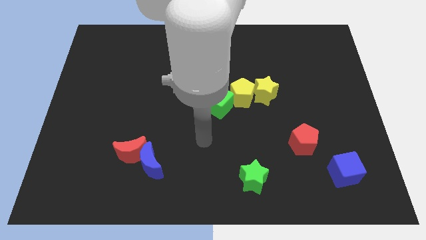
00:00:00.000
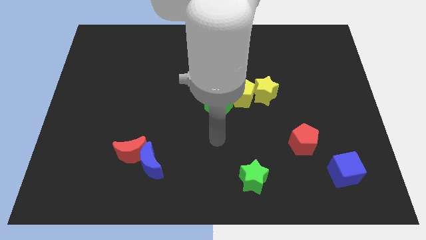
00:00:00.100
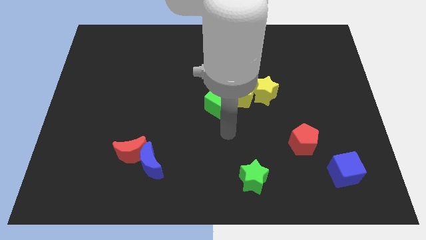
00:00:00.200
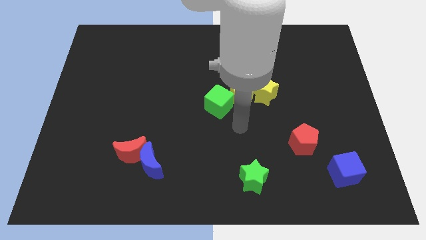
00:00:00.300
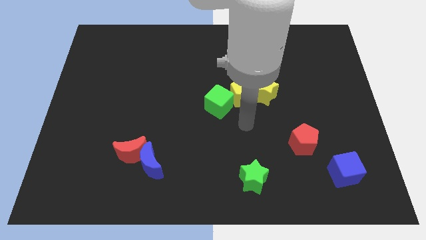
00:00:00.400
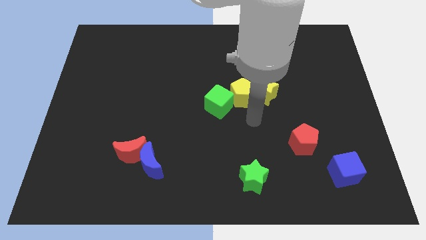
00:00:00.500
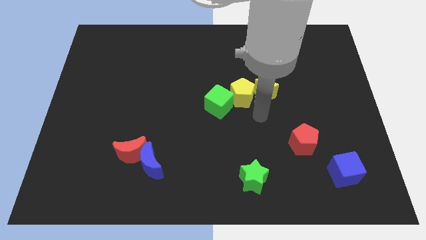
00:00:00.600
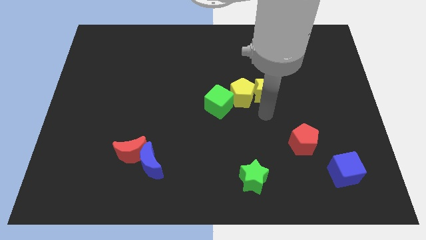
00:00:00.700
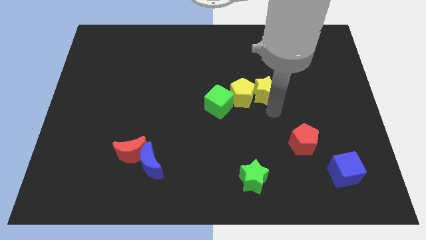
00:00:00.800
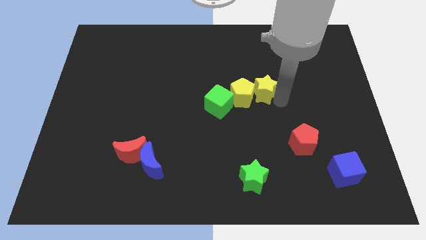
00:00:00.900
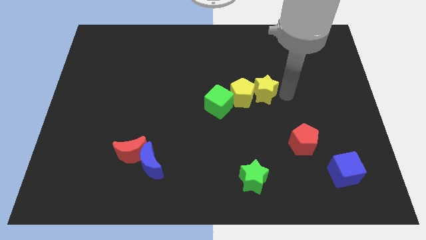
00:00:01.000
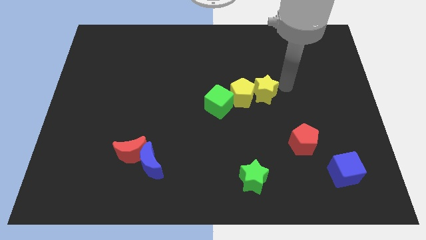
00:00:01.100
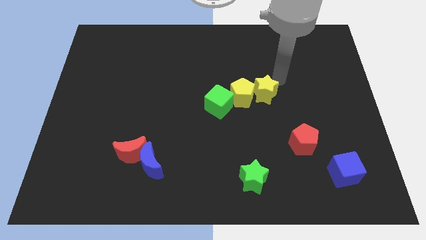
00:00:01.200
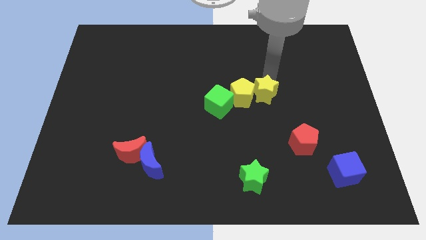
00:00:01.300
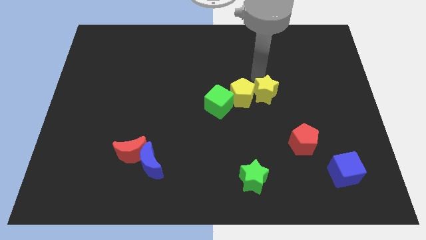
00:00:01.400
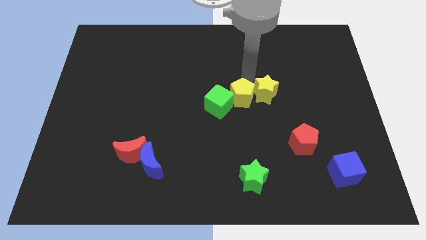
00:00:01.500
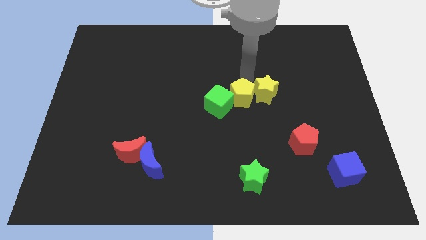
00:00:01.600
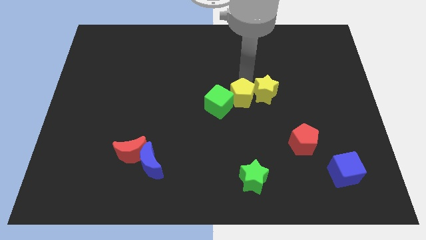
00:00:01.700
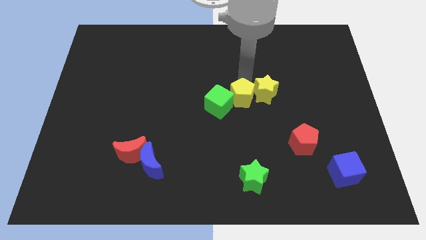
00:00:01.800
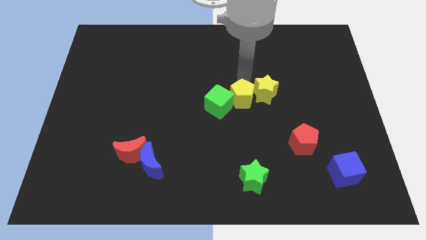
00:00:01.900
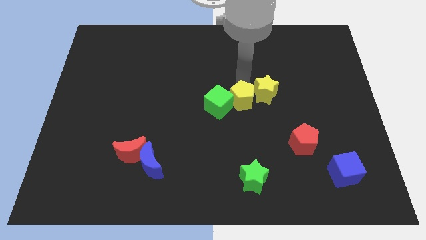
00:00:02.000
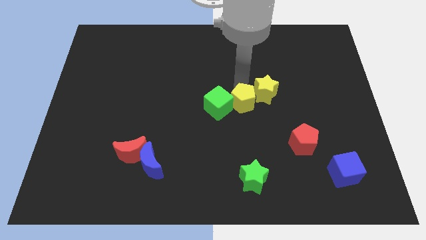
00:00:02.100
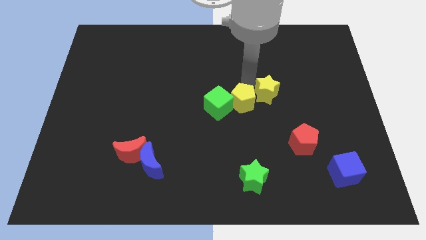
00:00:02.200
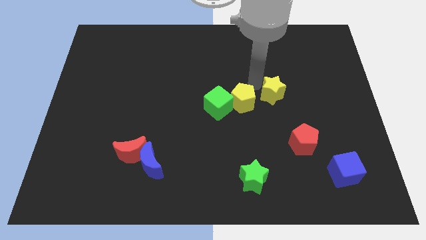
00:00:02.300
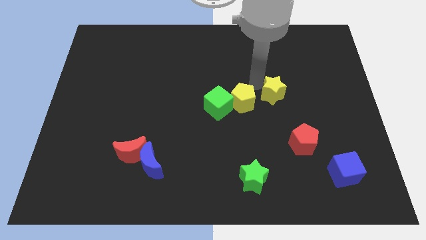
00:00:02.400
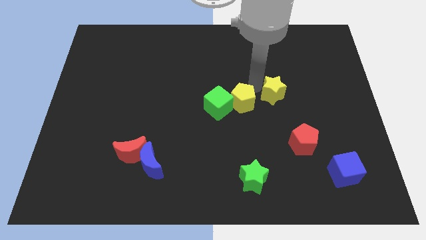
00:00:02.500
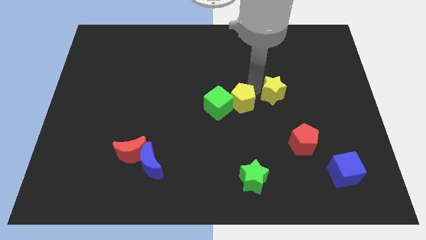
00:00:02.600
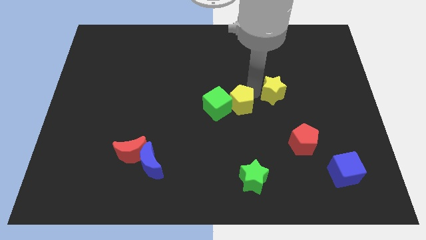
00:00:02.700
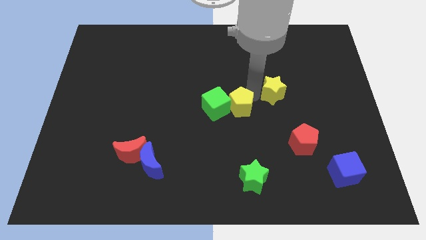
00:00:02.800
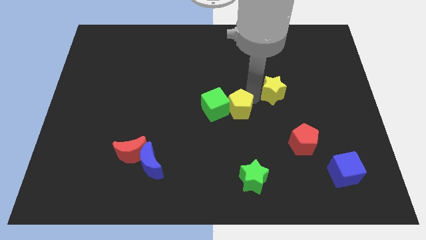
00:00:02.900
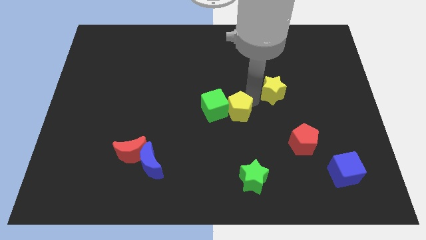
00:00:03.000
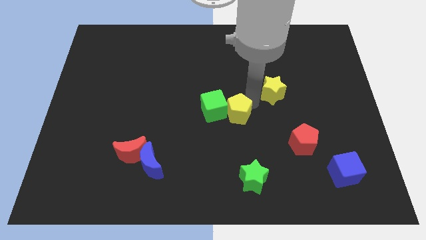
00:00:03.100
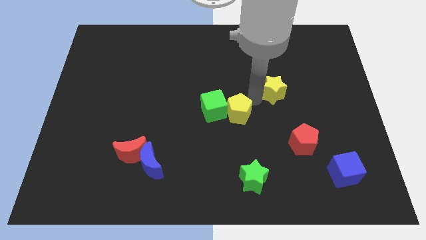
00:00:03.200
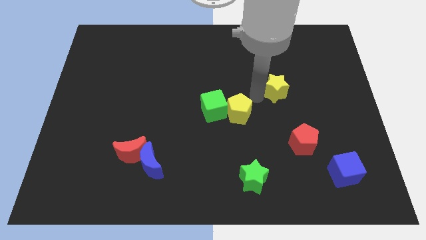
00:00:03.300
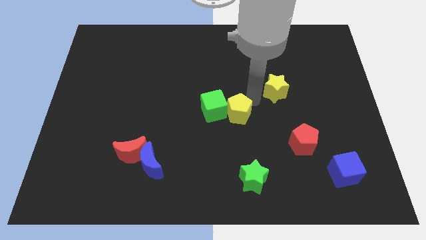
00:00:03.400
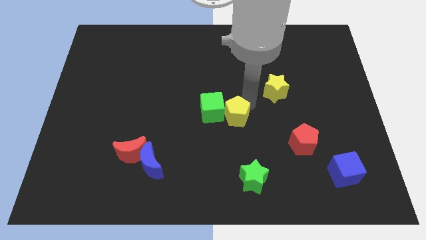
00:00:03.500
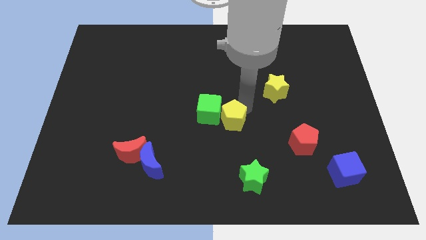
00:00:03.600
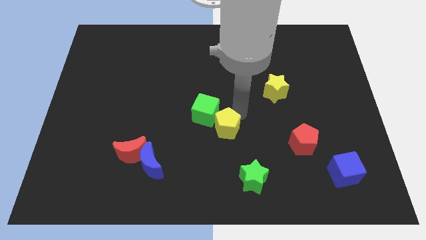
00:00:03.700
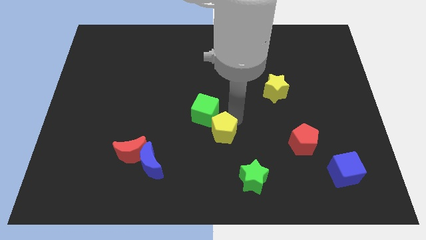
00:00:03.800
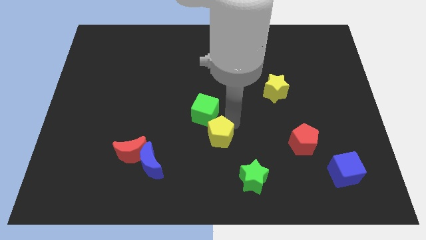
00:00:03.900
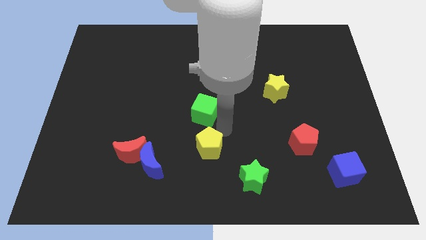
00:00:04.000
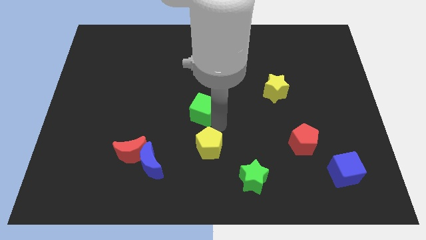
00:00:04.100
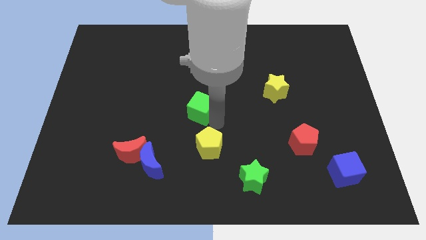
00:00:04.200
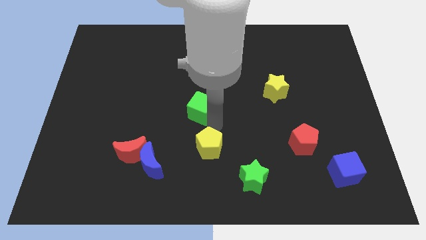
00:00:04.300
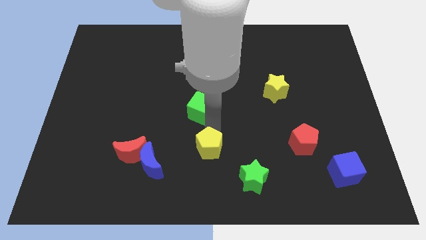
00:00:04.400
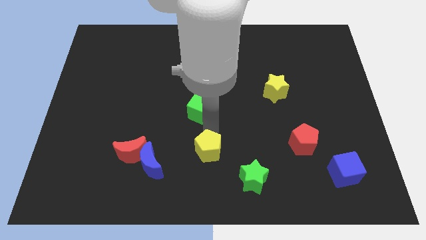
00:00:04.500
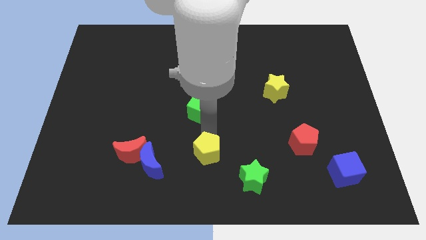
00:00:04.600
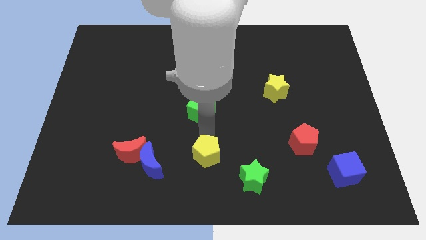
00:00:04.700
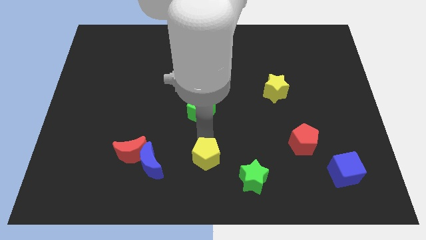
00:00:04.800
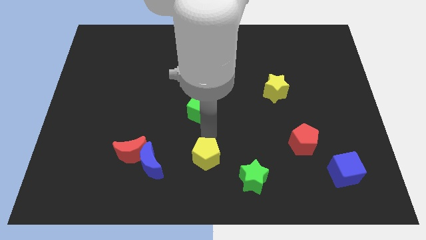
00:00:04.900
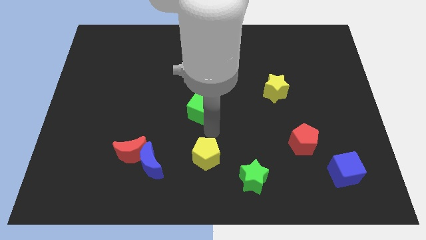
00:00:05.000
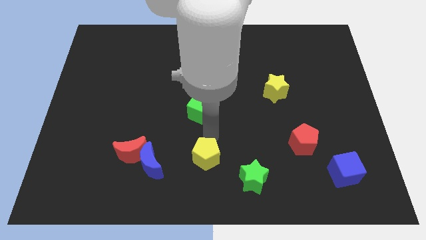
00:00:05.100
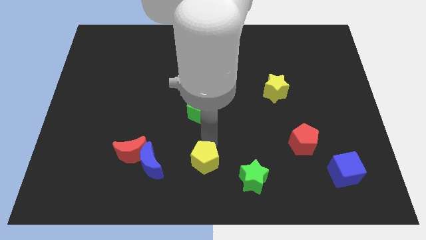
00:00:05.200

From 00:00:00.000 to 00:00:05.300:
put the yellow pentagon left of the green star

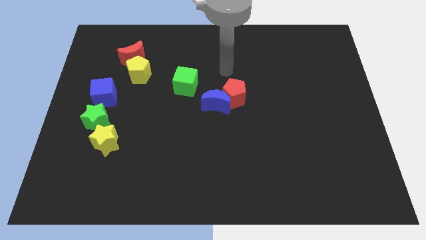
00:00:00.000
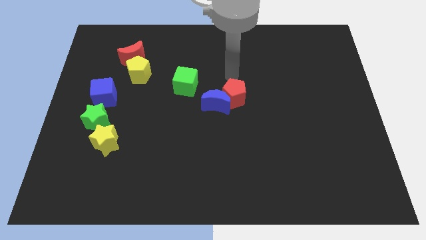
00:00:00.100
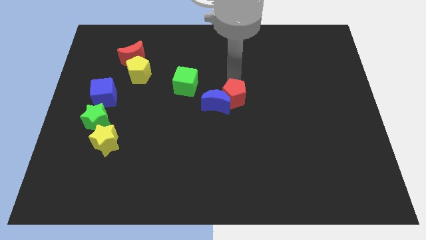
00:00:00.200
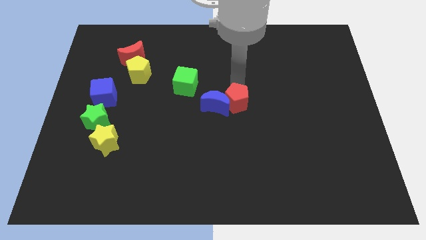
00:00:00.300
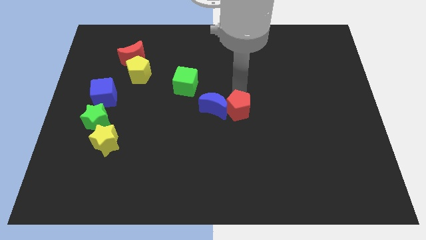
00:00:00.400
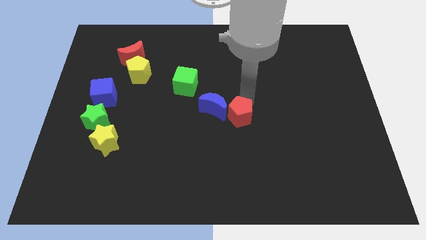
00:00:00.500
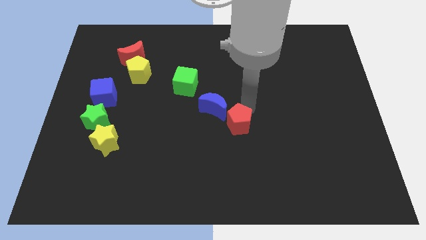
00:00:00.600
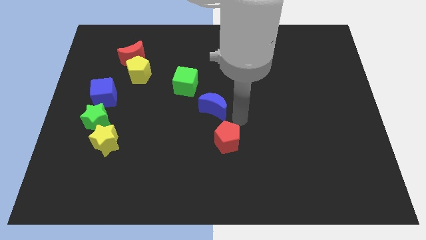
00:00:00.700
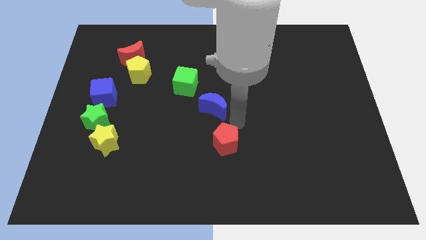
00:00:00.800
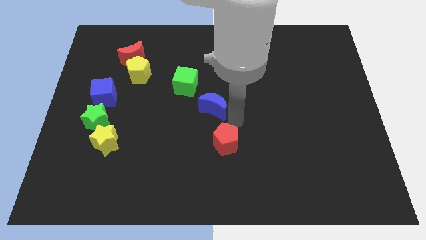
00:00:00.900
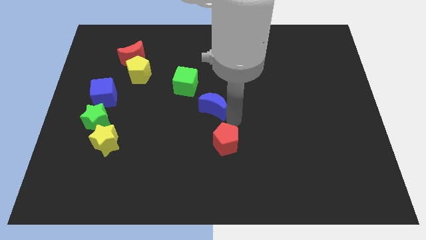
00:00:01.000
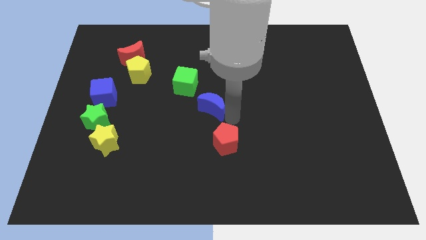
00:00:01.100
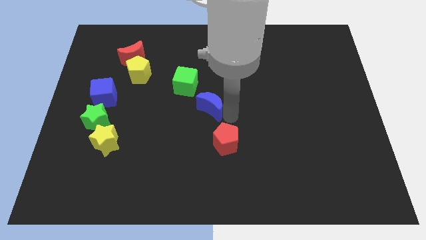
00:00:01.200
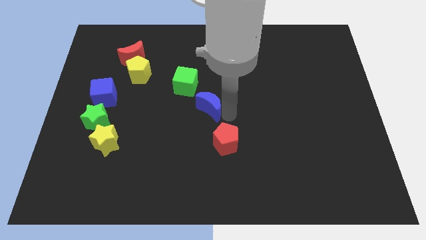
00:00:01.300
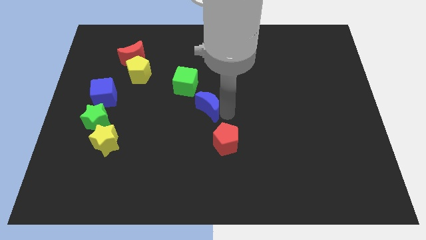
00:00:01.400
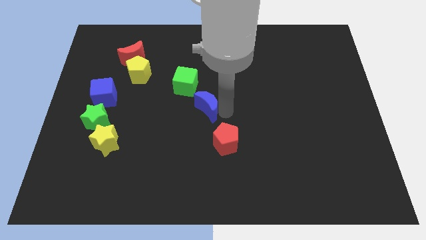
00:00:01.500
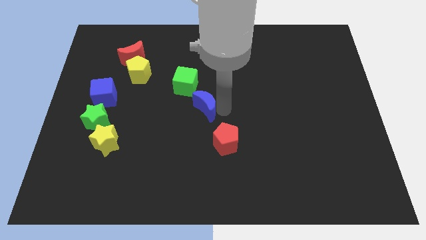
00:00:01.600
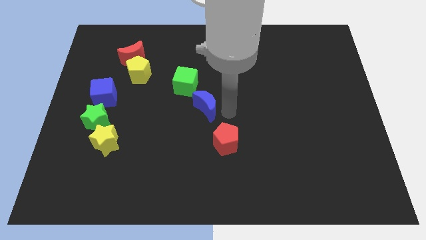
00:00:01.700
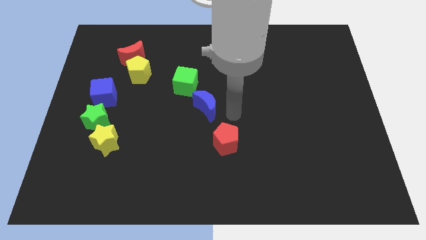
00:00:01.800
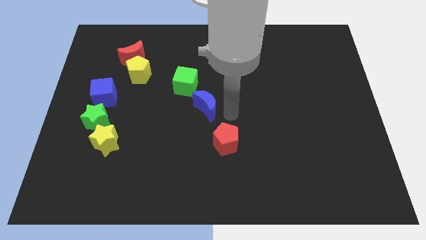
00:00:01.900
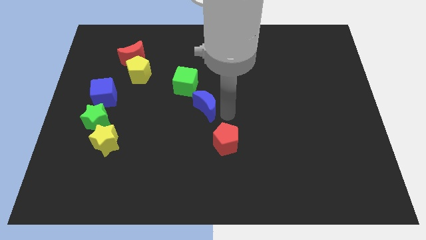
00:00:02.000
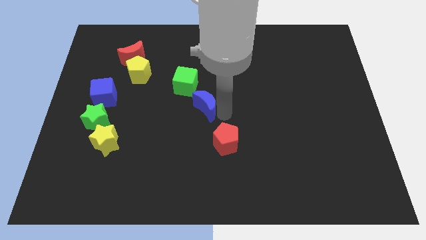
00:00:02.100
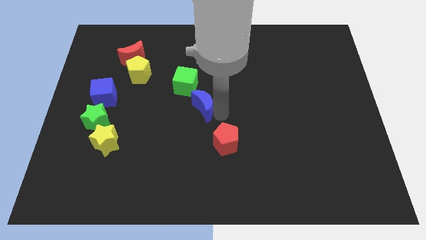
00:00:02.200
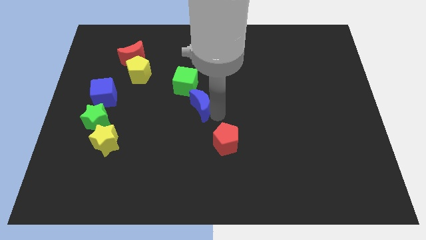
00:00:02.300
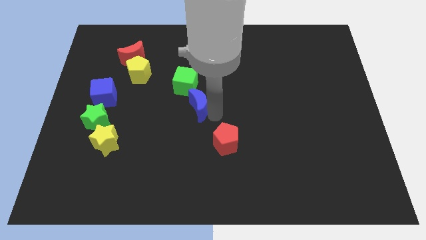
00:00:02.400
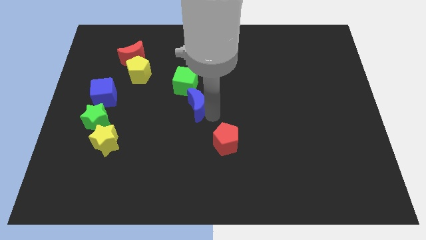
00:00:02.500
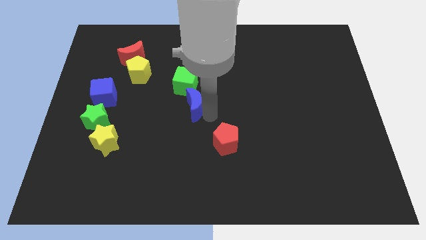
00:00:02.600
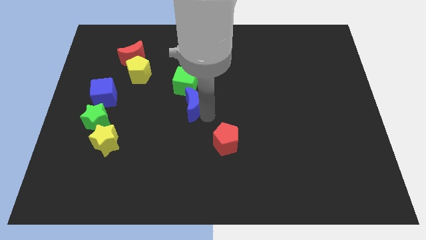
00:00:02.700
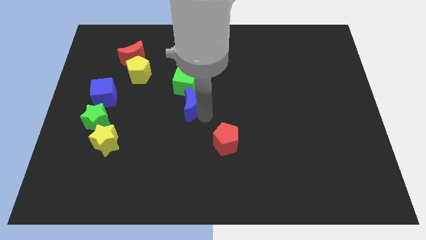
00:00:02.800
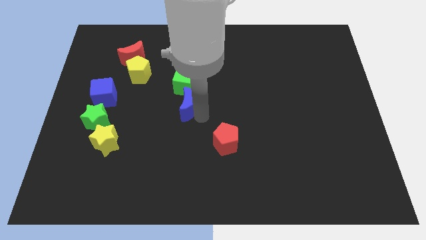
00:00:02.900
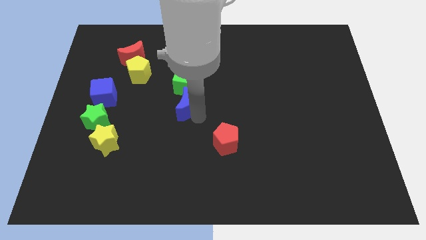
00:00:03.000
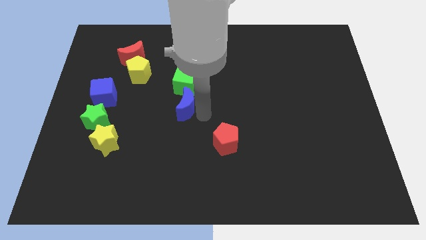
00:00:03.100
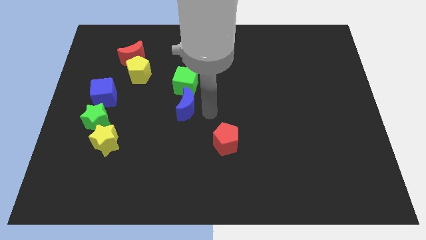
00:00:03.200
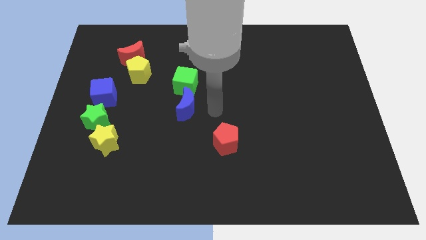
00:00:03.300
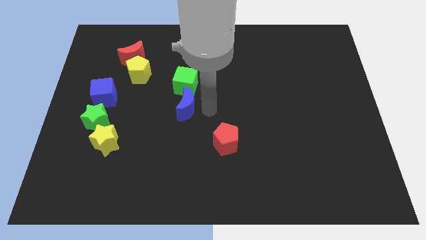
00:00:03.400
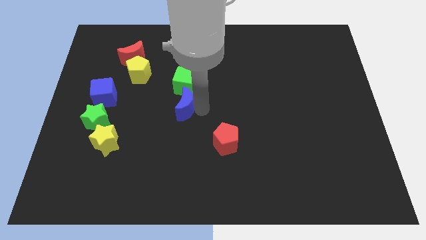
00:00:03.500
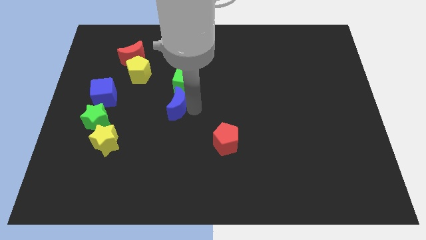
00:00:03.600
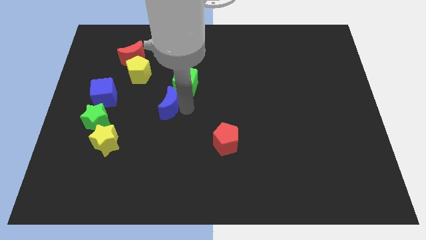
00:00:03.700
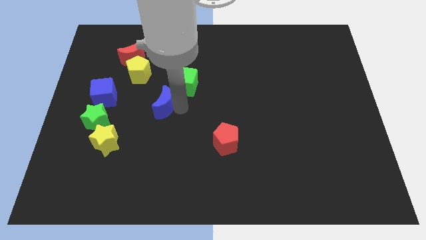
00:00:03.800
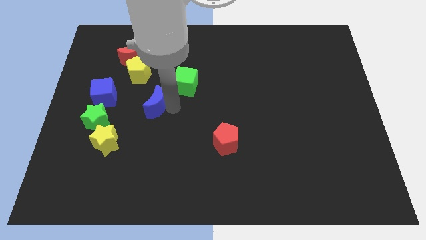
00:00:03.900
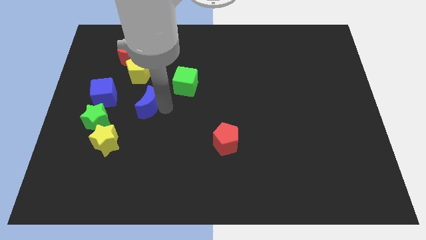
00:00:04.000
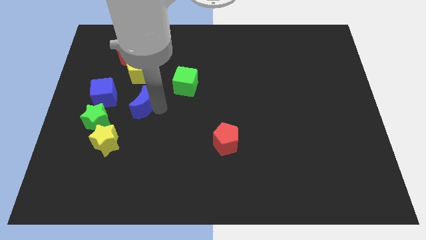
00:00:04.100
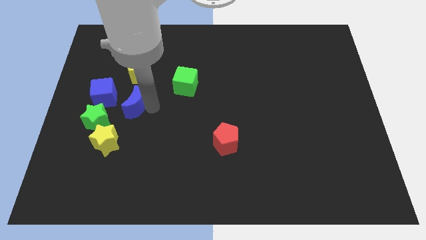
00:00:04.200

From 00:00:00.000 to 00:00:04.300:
push the blue moon above the yellow star
